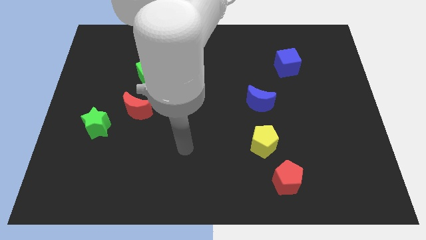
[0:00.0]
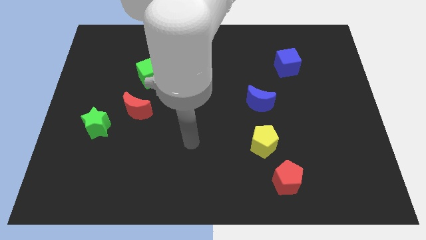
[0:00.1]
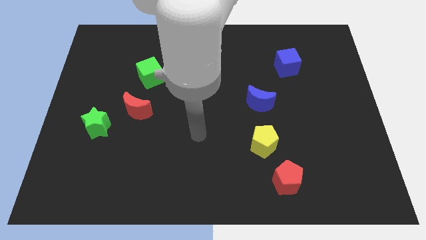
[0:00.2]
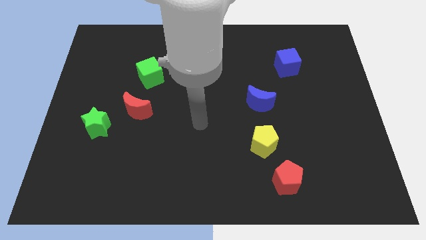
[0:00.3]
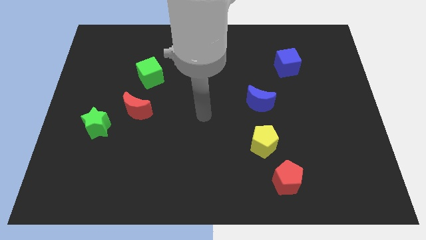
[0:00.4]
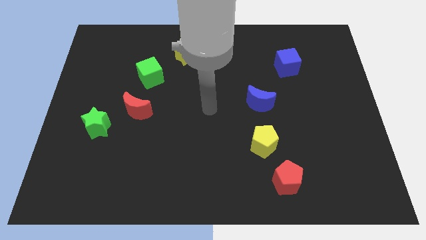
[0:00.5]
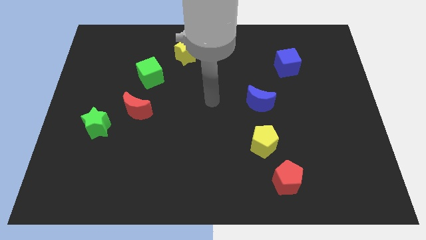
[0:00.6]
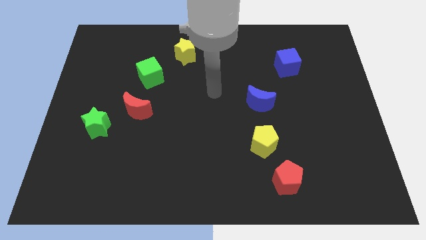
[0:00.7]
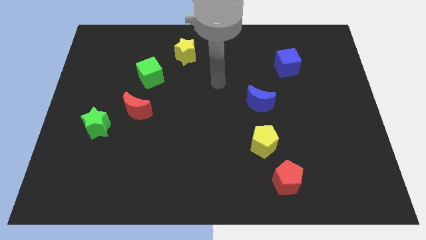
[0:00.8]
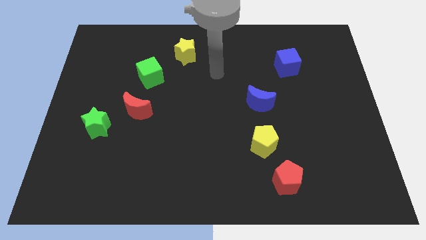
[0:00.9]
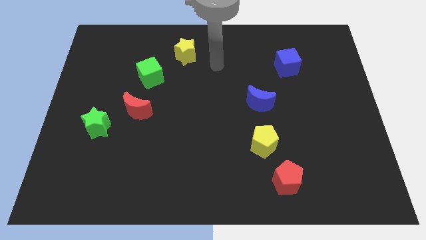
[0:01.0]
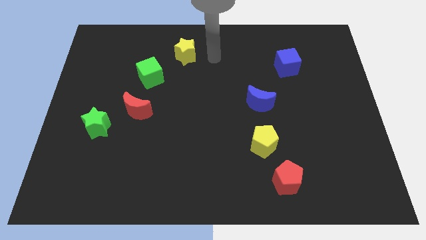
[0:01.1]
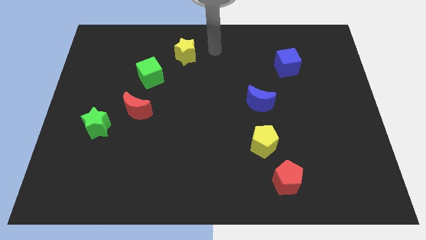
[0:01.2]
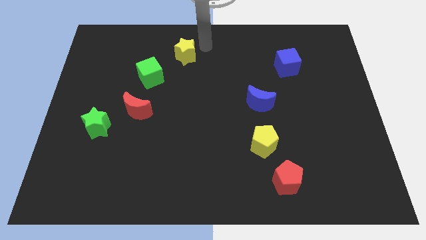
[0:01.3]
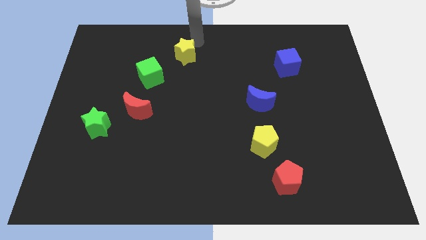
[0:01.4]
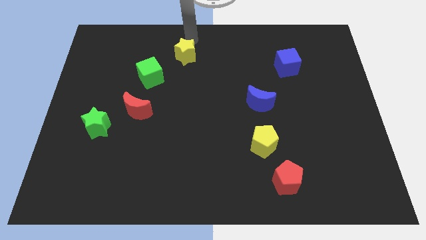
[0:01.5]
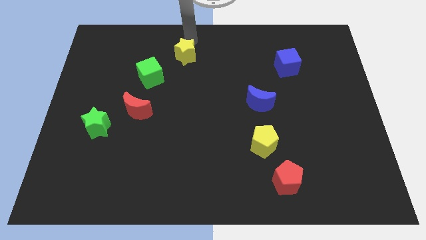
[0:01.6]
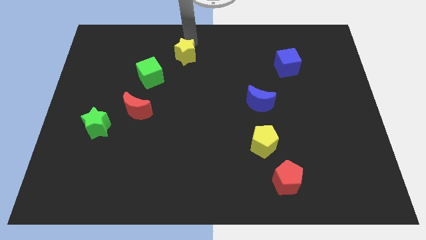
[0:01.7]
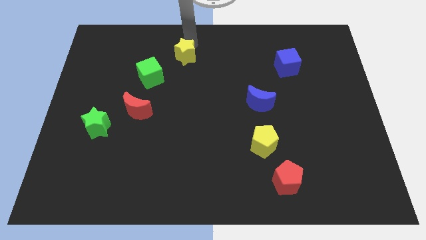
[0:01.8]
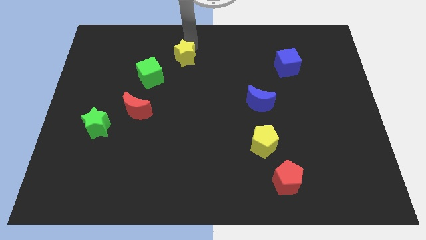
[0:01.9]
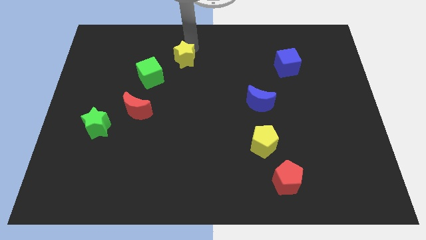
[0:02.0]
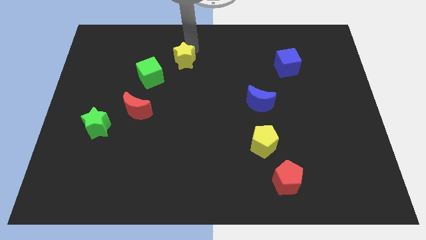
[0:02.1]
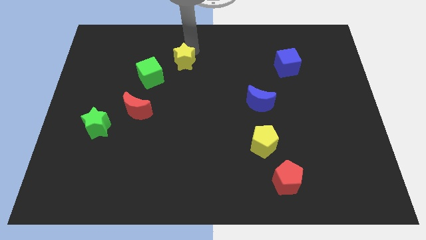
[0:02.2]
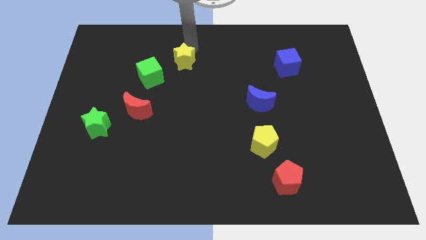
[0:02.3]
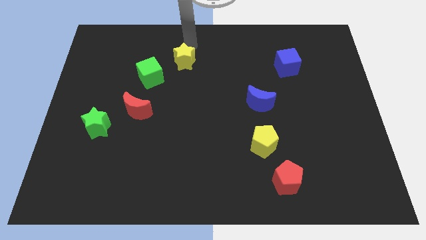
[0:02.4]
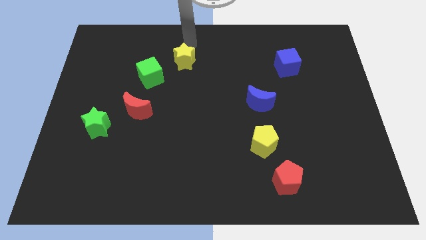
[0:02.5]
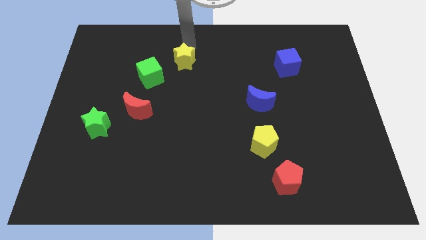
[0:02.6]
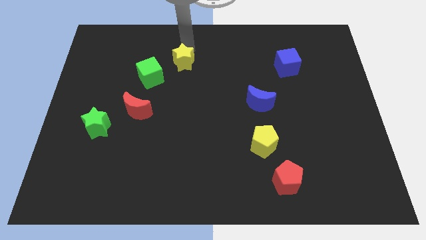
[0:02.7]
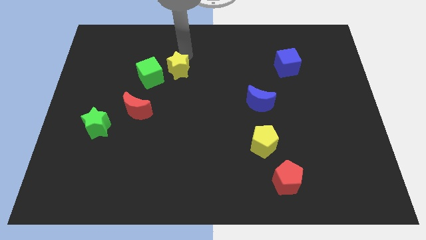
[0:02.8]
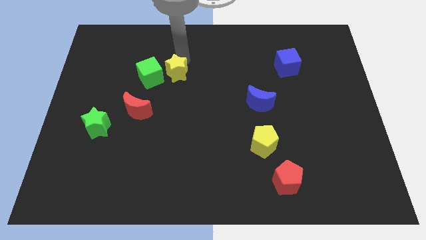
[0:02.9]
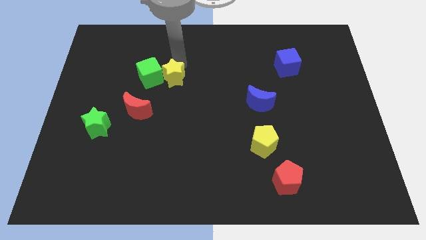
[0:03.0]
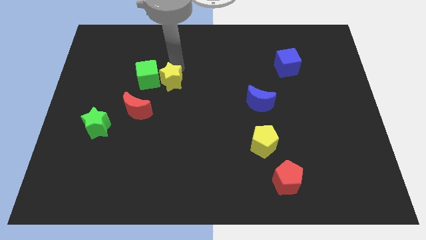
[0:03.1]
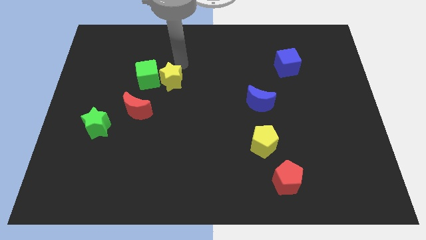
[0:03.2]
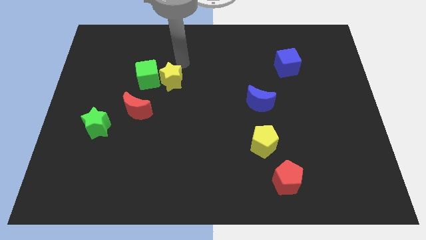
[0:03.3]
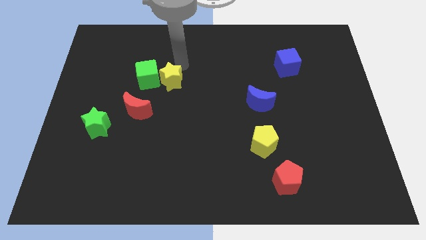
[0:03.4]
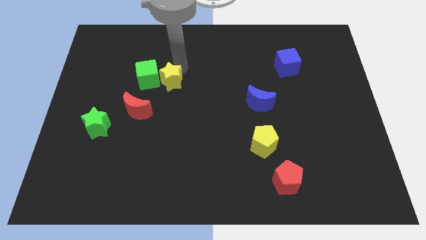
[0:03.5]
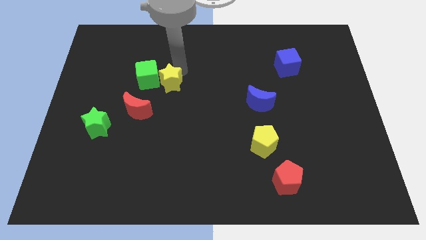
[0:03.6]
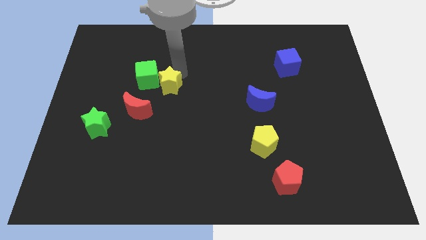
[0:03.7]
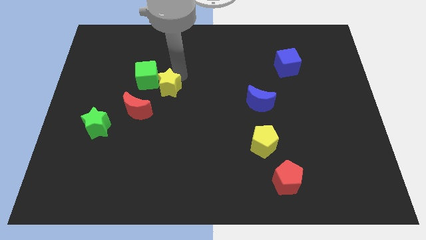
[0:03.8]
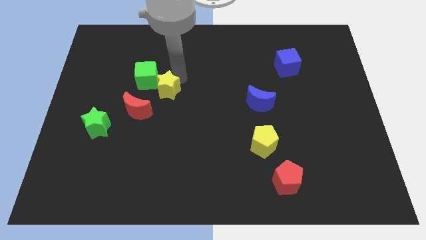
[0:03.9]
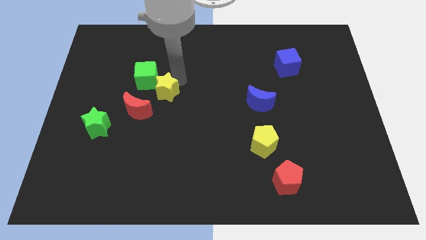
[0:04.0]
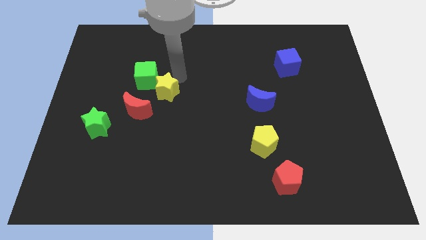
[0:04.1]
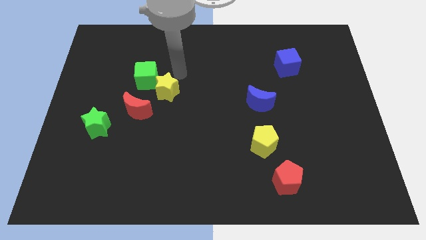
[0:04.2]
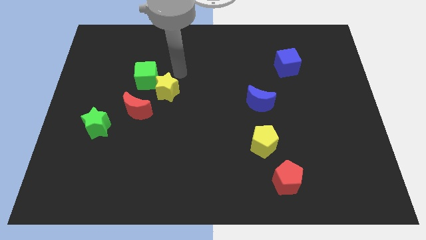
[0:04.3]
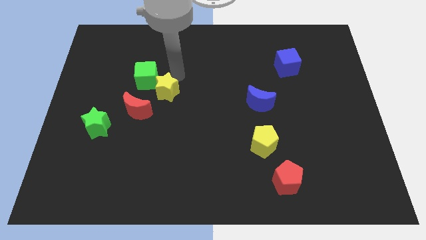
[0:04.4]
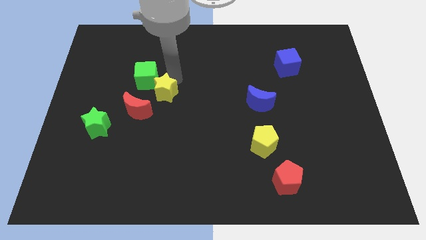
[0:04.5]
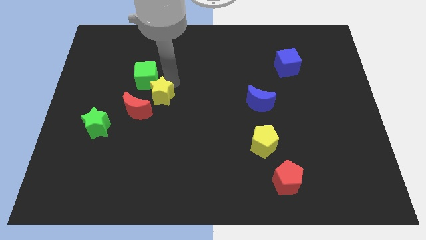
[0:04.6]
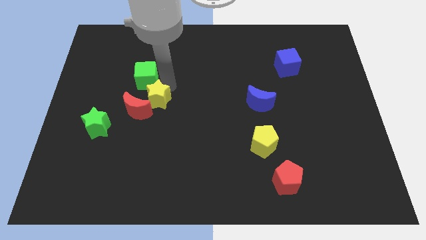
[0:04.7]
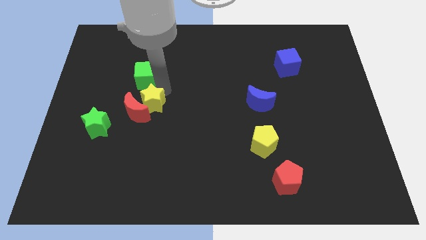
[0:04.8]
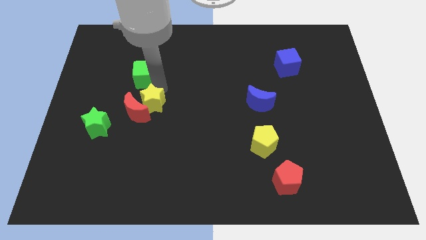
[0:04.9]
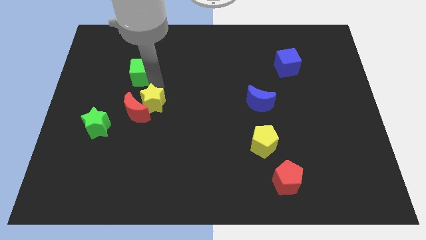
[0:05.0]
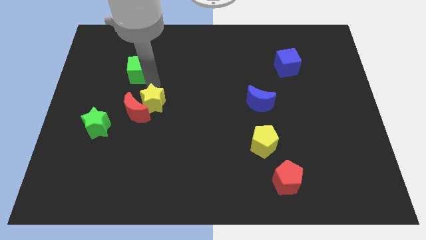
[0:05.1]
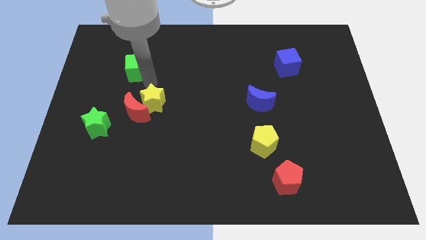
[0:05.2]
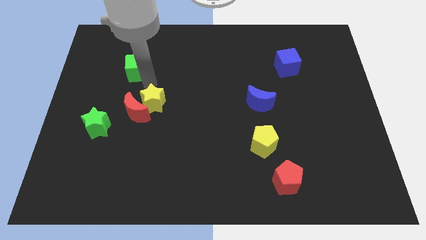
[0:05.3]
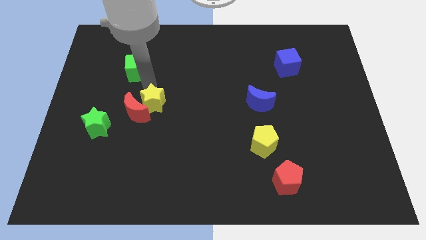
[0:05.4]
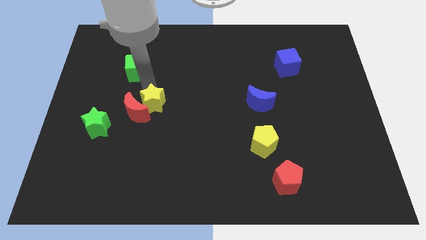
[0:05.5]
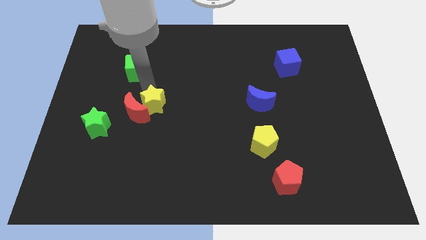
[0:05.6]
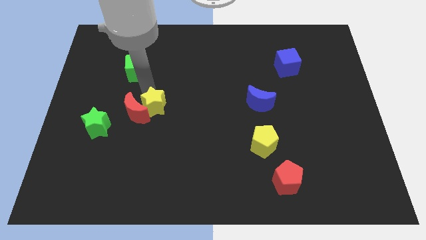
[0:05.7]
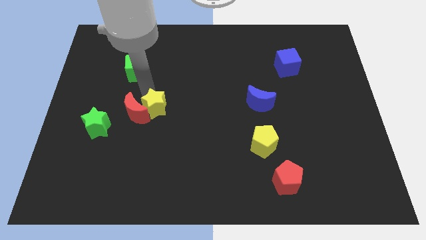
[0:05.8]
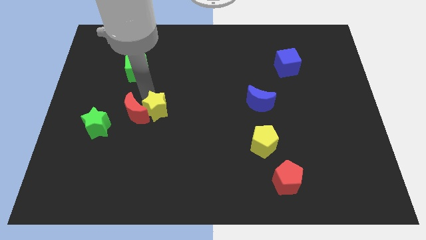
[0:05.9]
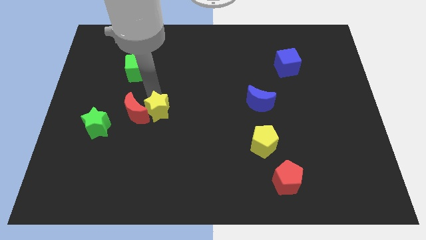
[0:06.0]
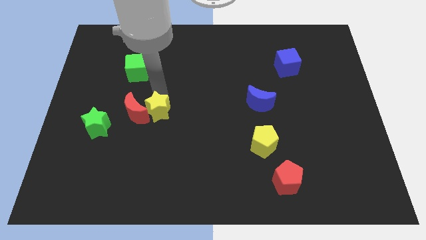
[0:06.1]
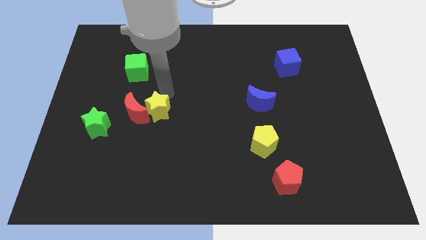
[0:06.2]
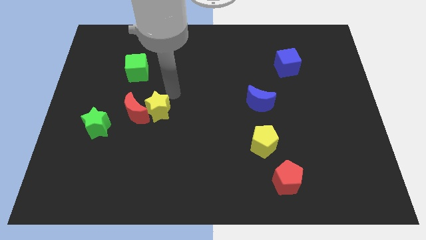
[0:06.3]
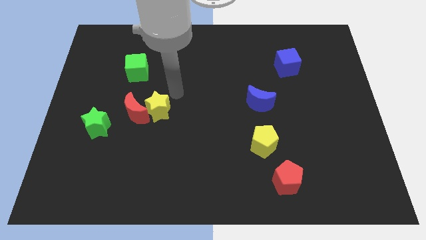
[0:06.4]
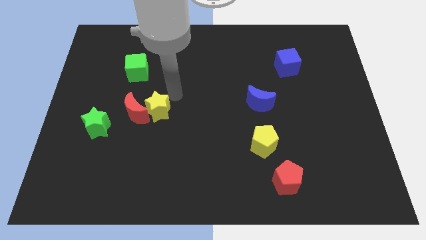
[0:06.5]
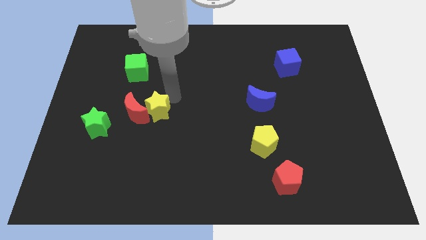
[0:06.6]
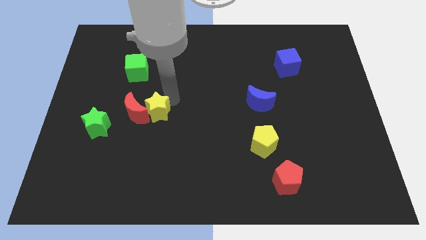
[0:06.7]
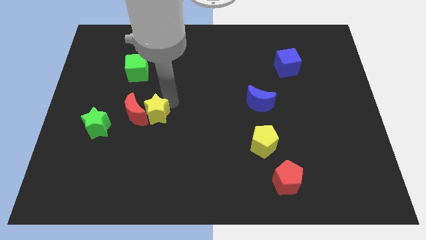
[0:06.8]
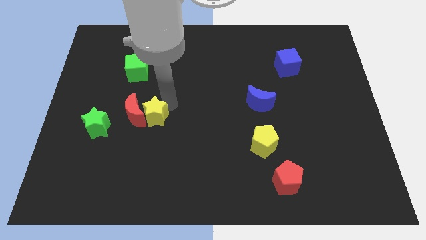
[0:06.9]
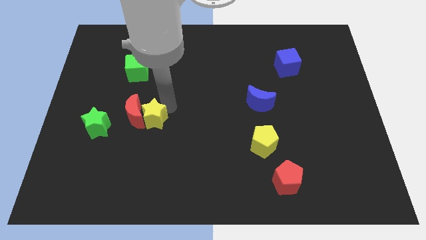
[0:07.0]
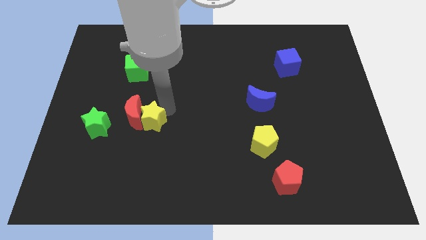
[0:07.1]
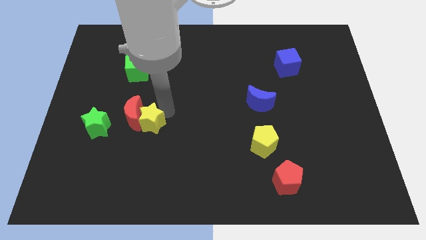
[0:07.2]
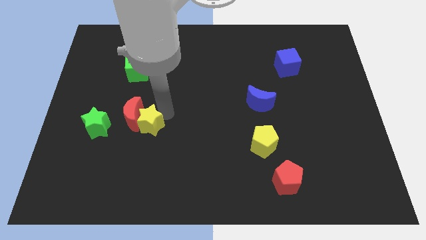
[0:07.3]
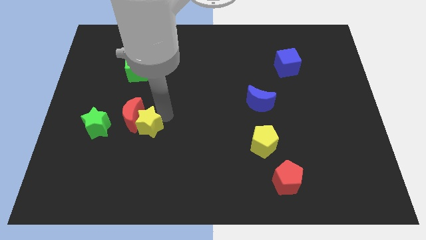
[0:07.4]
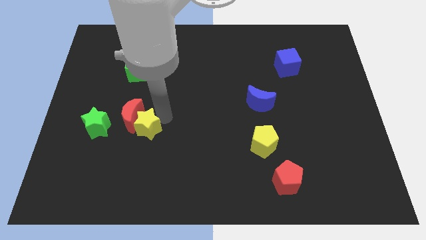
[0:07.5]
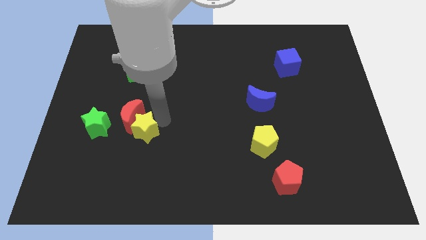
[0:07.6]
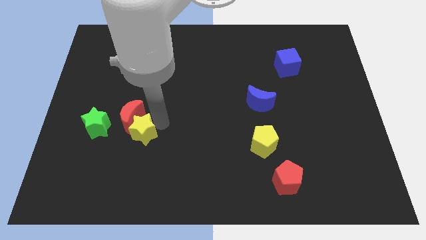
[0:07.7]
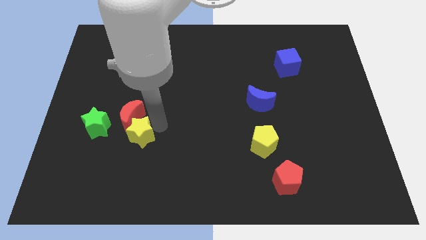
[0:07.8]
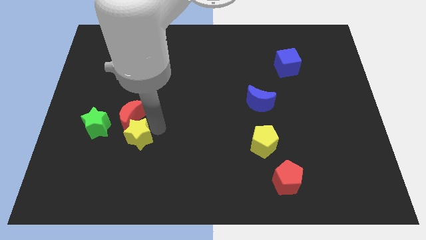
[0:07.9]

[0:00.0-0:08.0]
move the yellow star diagonally down and to the right of the green star
